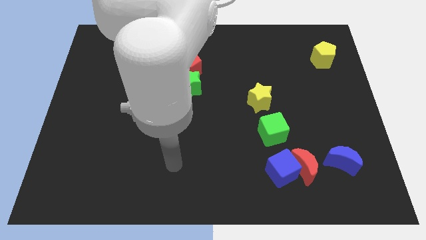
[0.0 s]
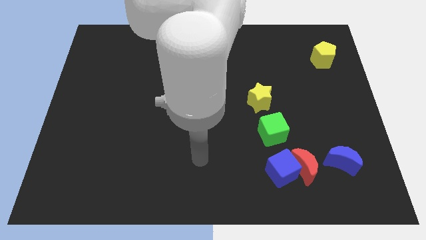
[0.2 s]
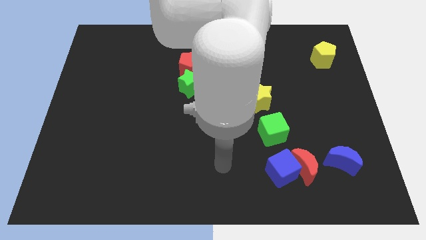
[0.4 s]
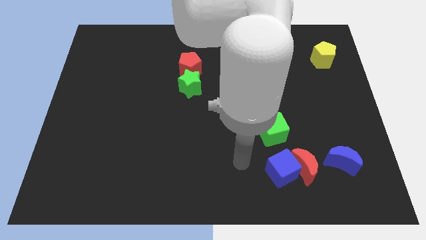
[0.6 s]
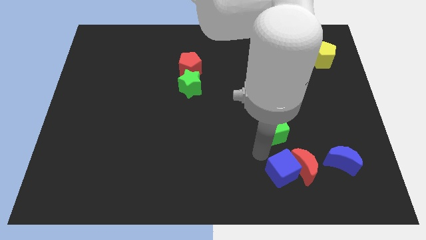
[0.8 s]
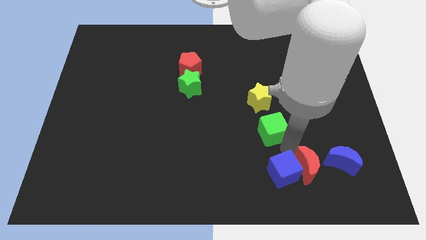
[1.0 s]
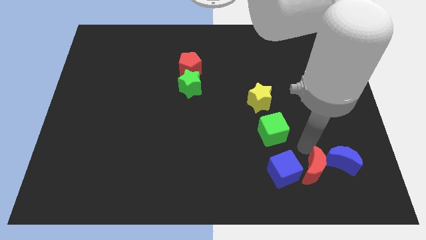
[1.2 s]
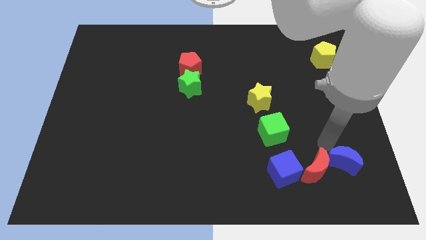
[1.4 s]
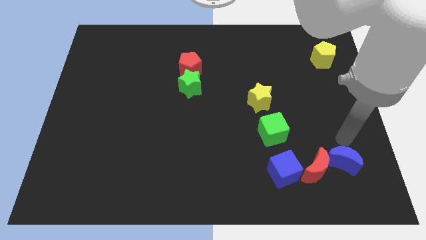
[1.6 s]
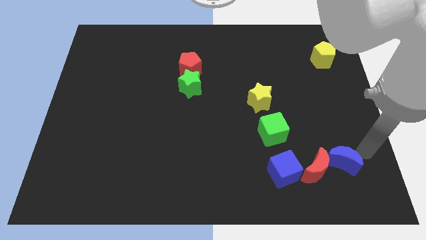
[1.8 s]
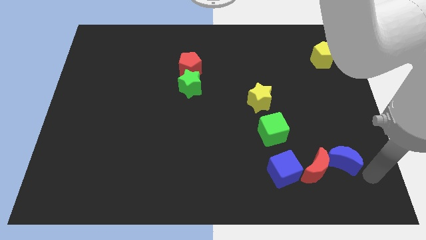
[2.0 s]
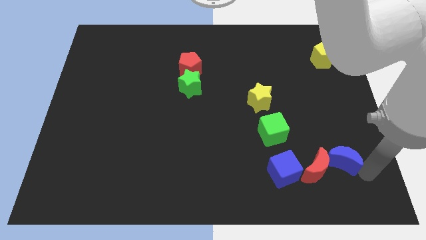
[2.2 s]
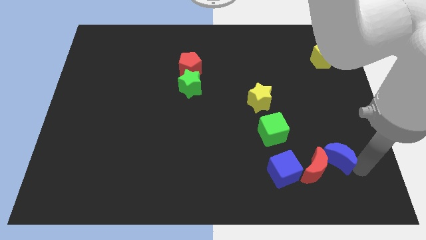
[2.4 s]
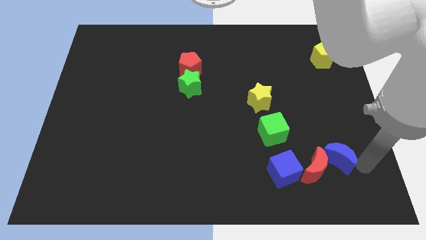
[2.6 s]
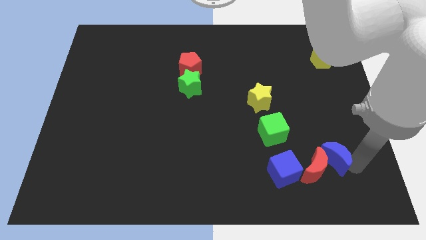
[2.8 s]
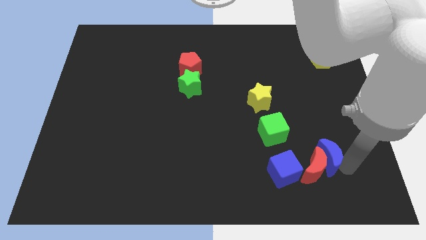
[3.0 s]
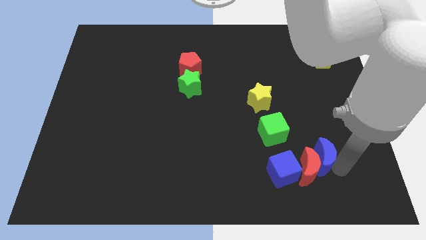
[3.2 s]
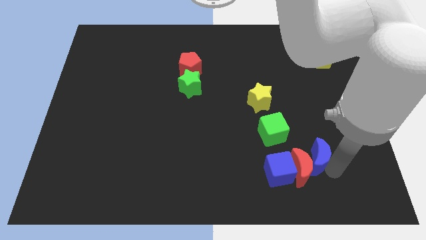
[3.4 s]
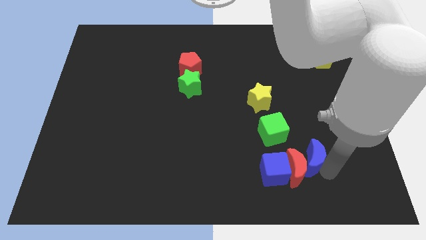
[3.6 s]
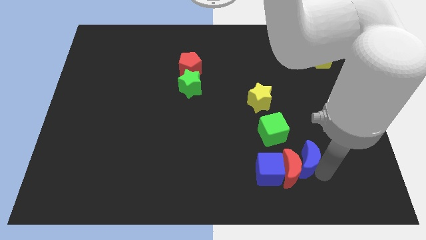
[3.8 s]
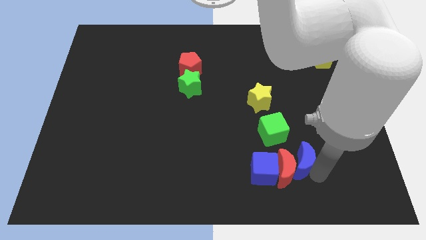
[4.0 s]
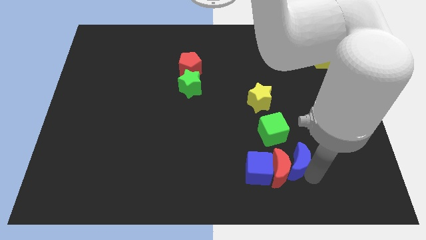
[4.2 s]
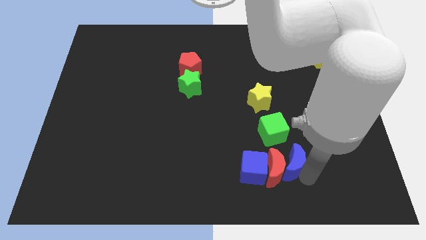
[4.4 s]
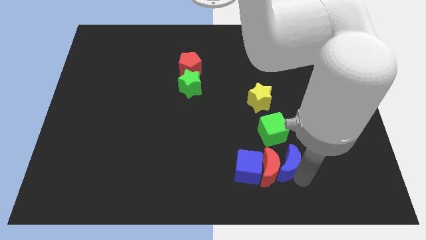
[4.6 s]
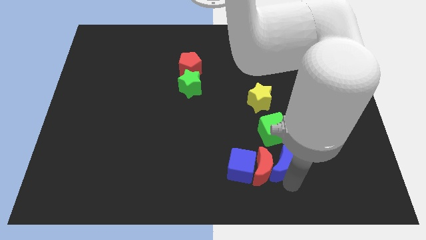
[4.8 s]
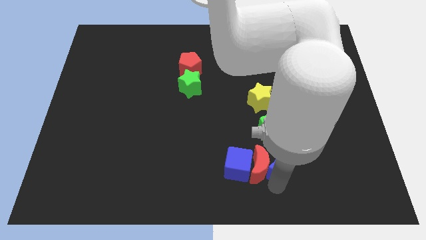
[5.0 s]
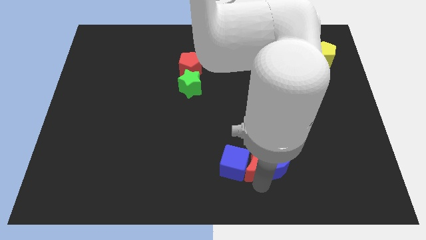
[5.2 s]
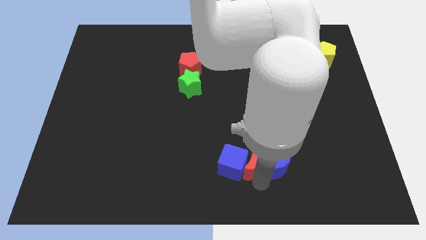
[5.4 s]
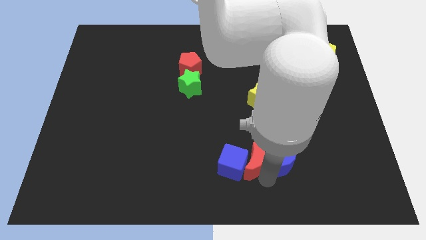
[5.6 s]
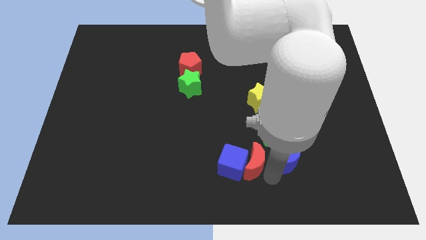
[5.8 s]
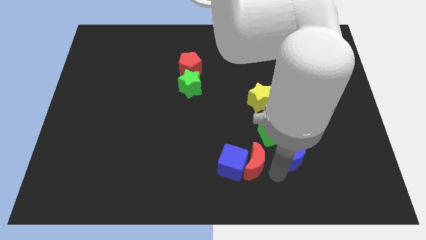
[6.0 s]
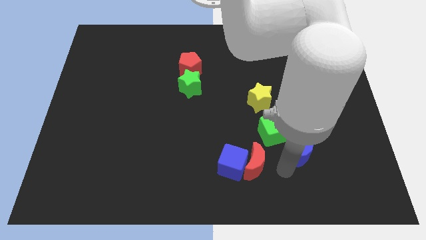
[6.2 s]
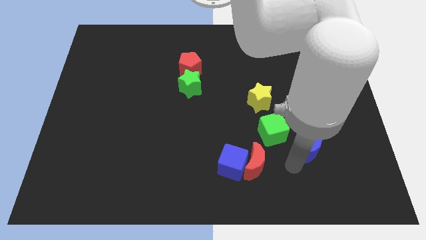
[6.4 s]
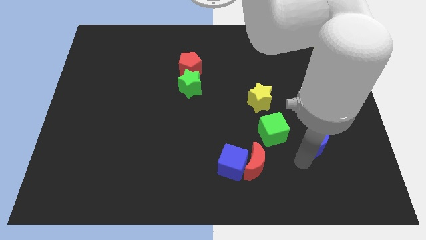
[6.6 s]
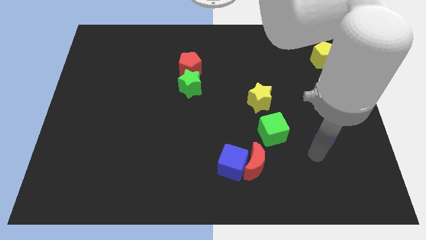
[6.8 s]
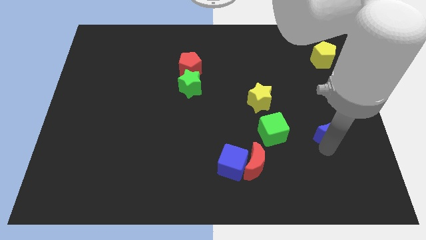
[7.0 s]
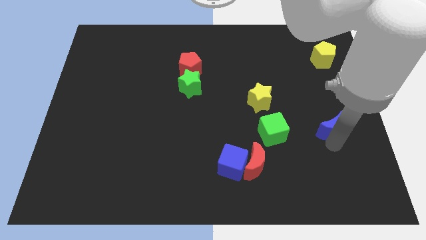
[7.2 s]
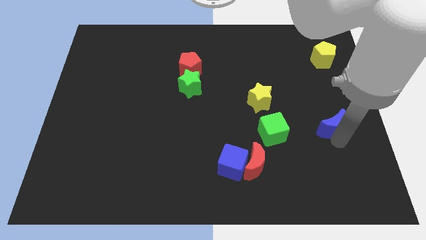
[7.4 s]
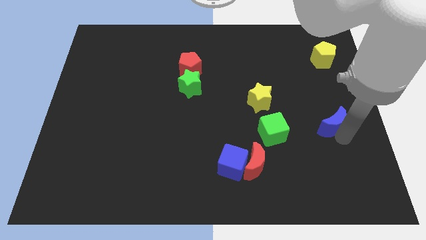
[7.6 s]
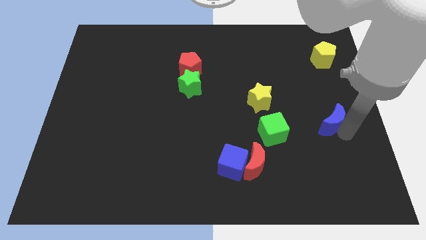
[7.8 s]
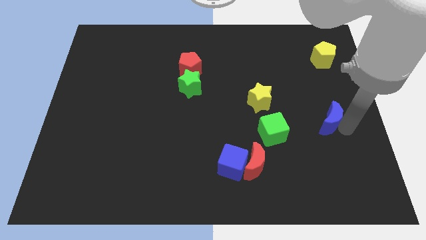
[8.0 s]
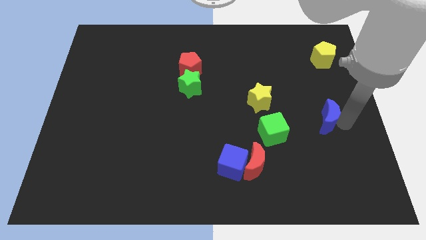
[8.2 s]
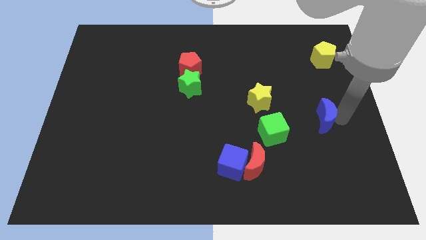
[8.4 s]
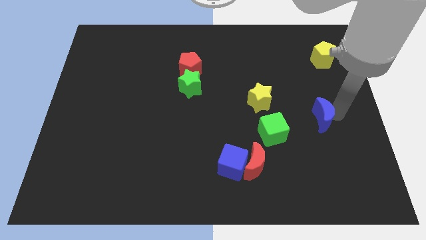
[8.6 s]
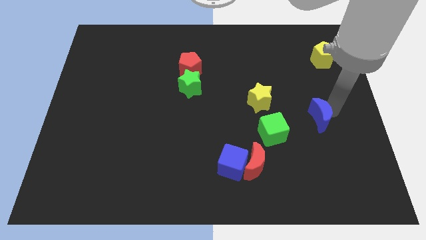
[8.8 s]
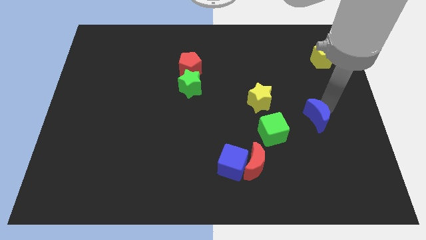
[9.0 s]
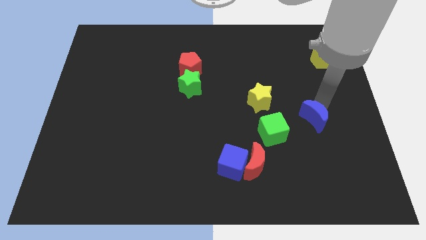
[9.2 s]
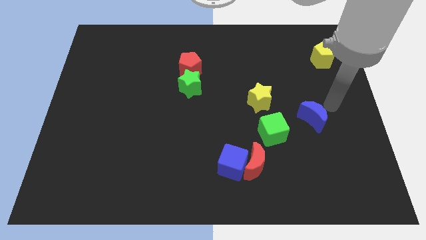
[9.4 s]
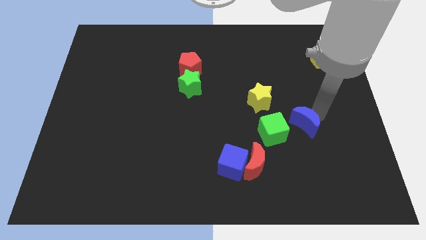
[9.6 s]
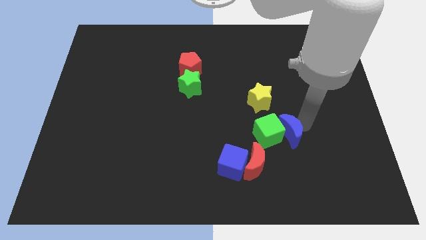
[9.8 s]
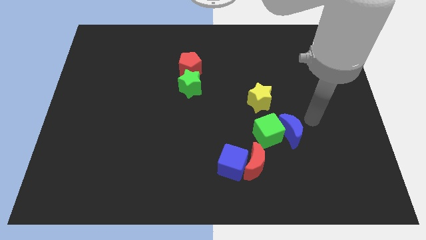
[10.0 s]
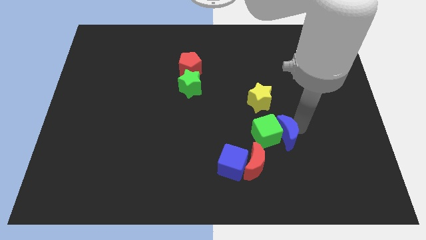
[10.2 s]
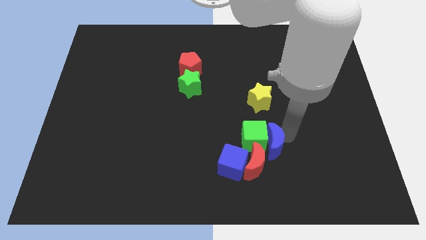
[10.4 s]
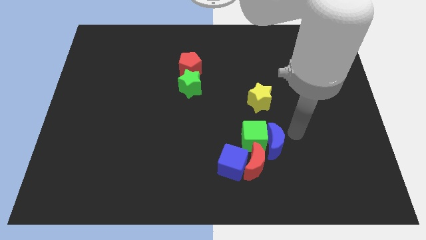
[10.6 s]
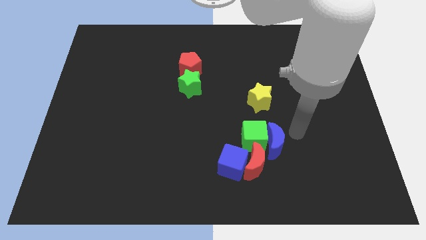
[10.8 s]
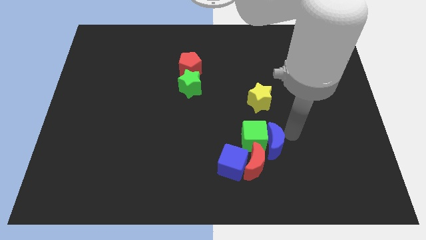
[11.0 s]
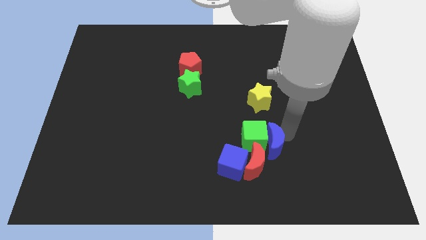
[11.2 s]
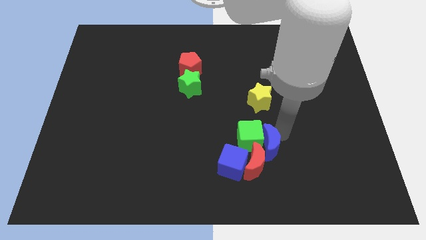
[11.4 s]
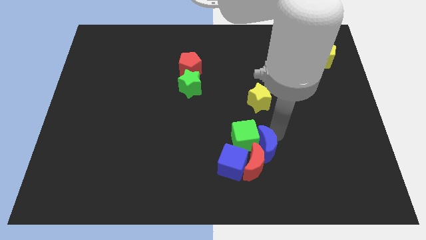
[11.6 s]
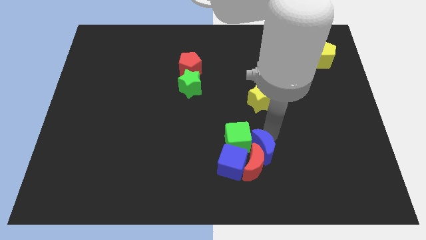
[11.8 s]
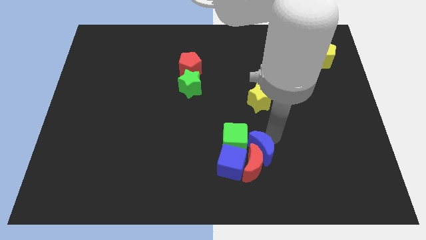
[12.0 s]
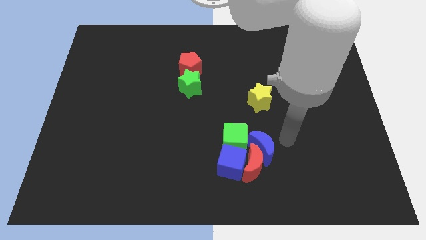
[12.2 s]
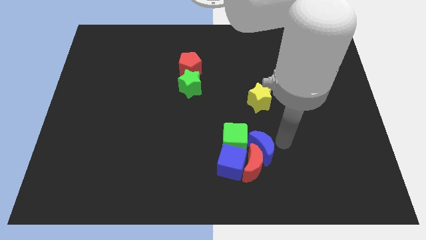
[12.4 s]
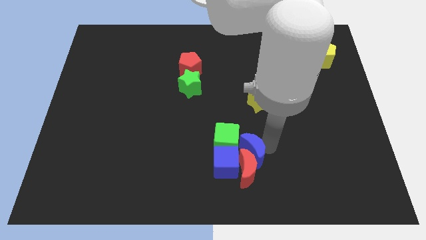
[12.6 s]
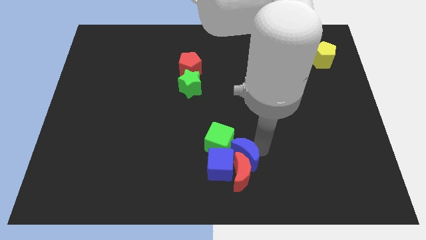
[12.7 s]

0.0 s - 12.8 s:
push the blue moon left

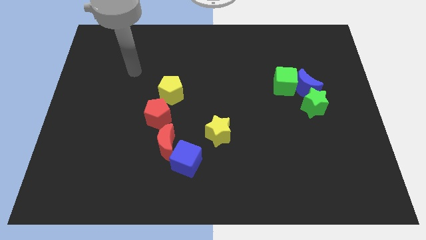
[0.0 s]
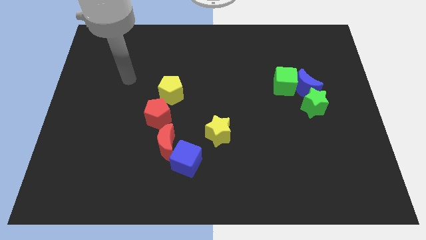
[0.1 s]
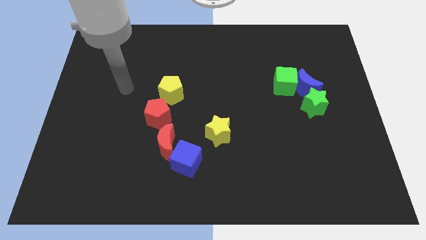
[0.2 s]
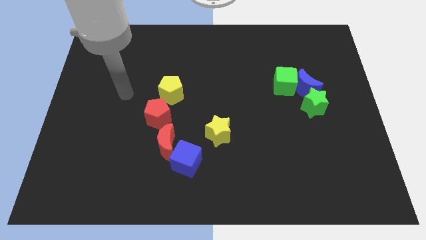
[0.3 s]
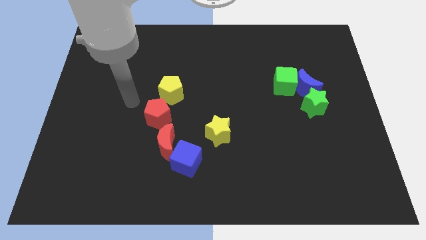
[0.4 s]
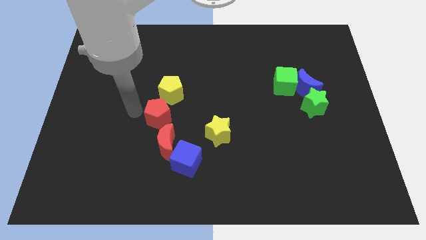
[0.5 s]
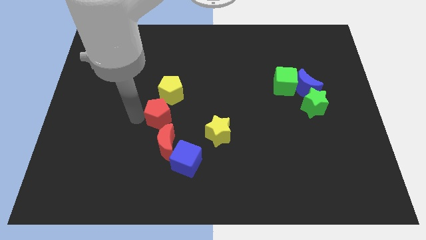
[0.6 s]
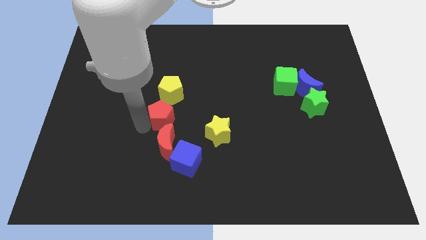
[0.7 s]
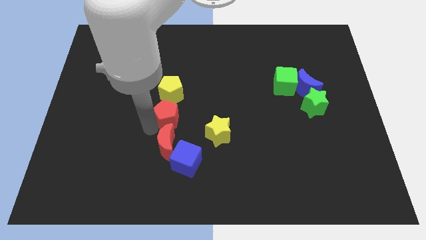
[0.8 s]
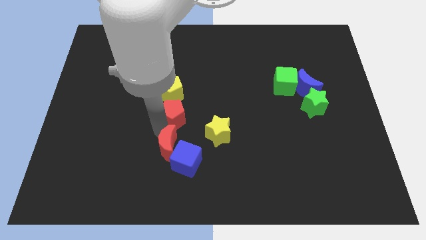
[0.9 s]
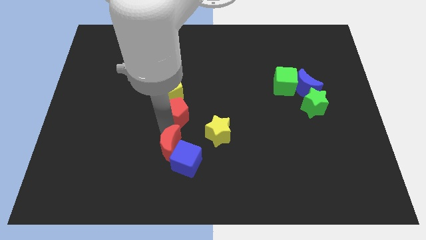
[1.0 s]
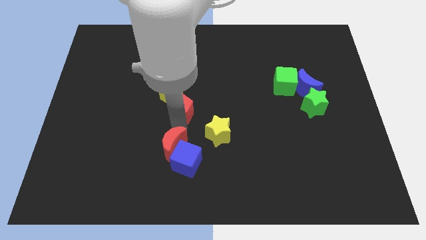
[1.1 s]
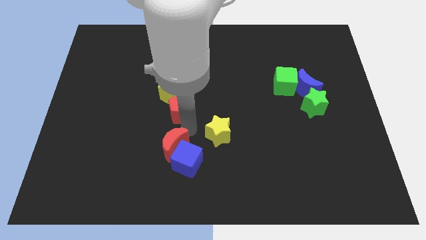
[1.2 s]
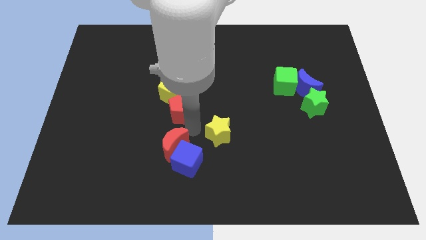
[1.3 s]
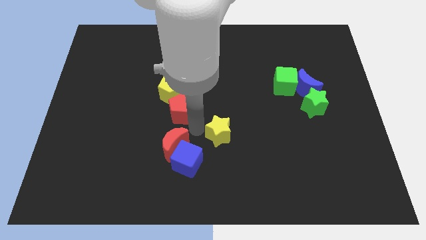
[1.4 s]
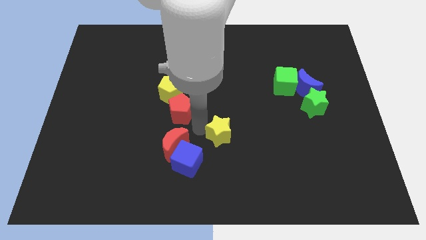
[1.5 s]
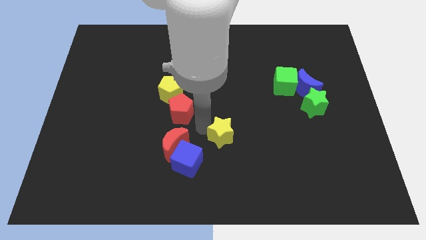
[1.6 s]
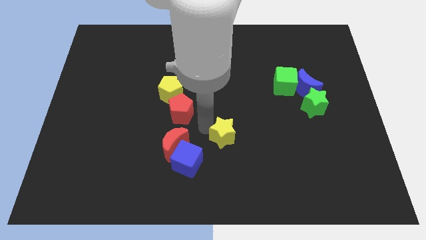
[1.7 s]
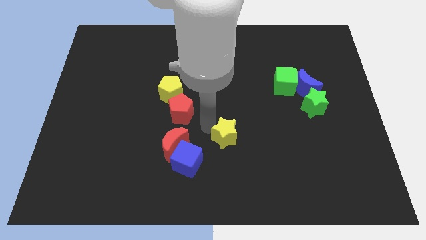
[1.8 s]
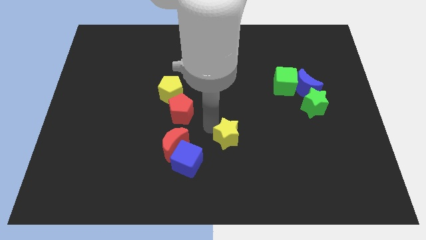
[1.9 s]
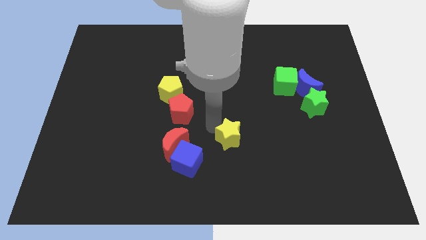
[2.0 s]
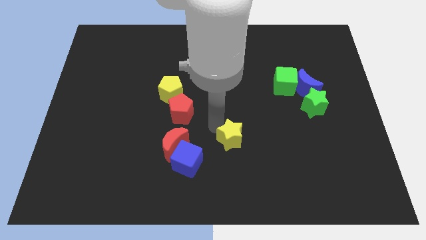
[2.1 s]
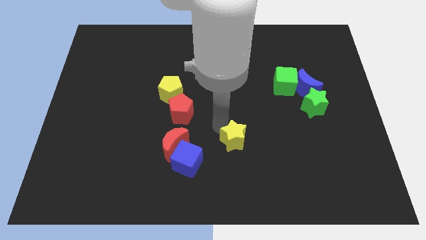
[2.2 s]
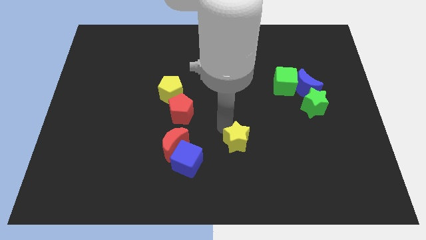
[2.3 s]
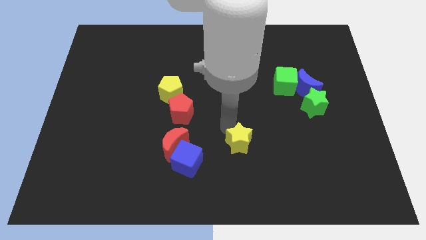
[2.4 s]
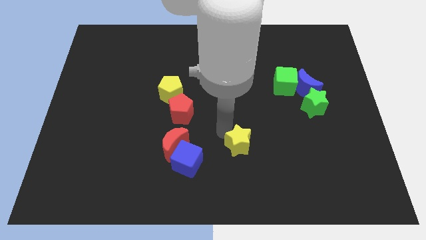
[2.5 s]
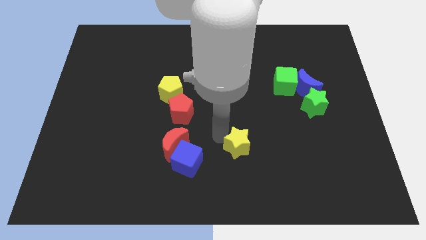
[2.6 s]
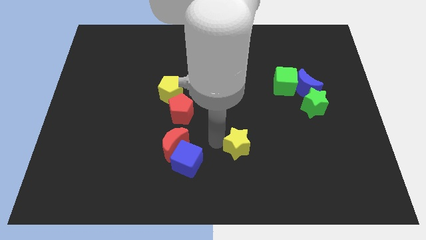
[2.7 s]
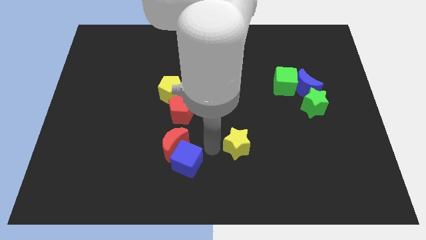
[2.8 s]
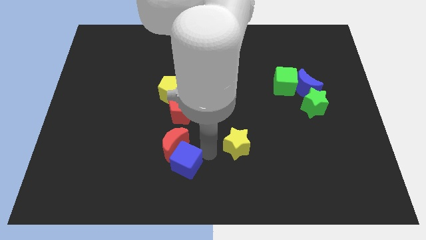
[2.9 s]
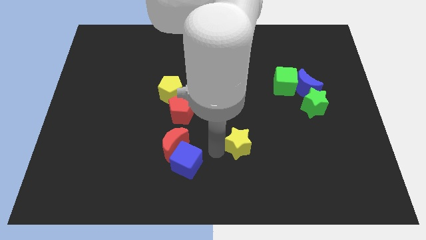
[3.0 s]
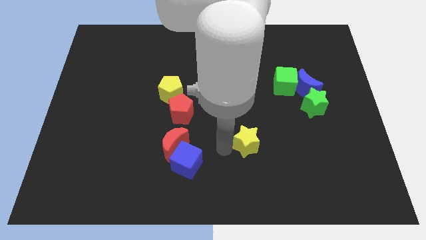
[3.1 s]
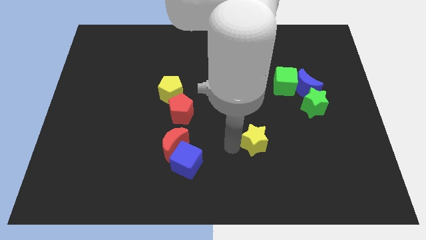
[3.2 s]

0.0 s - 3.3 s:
slide the yellow star a bit to the right
